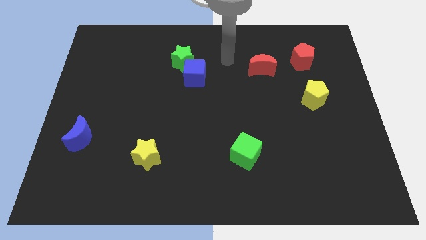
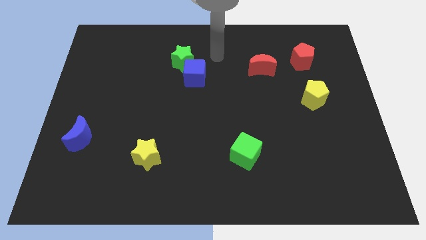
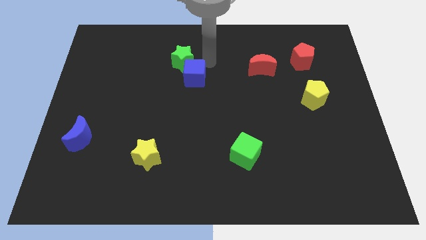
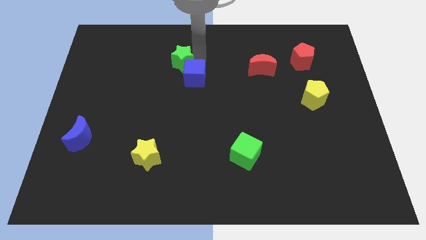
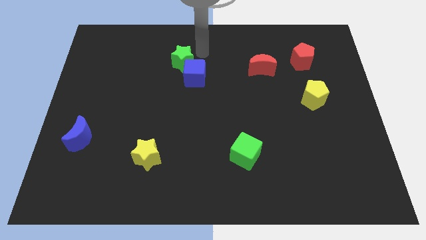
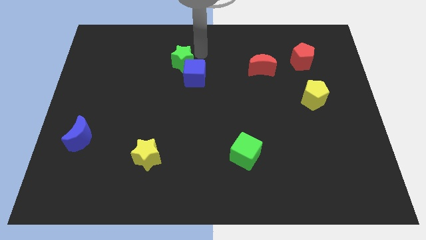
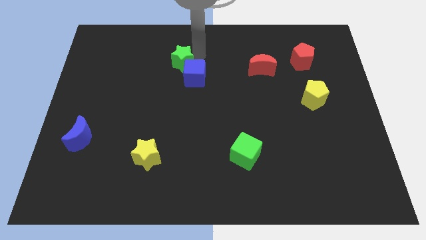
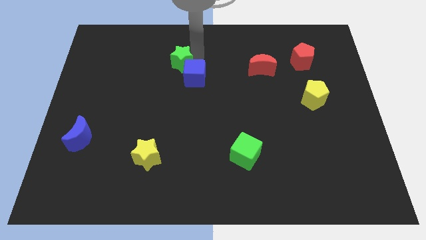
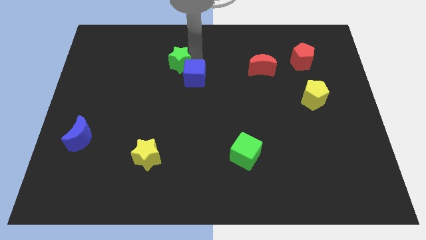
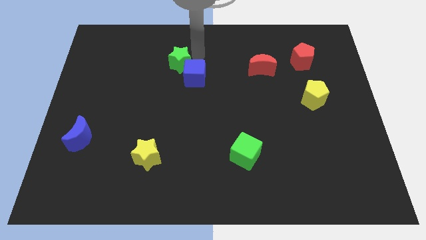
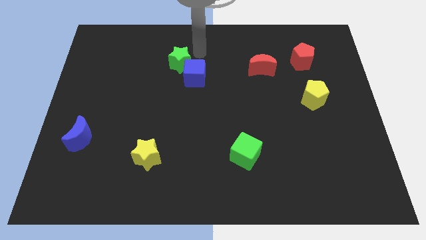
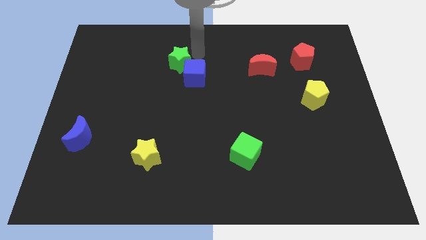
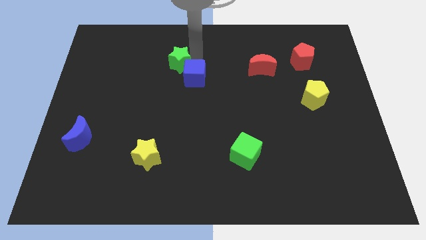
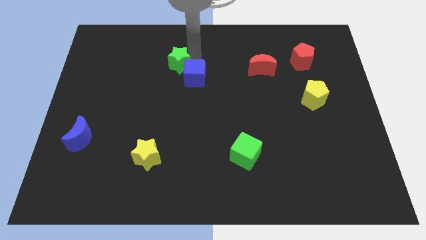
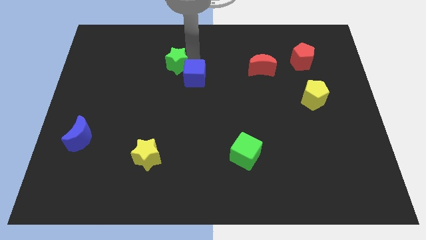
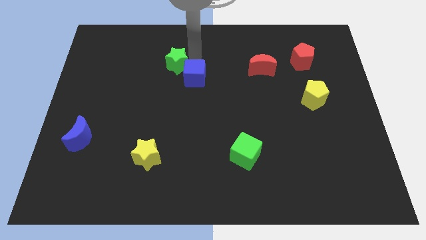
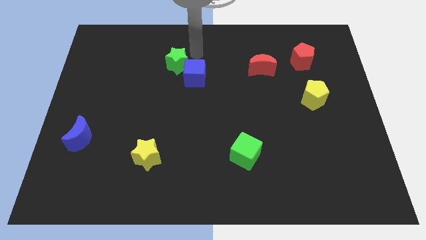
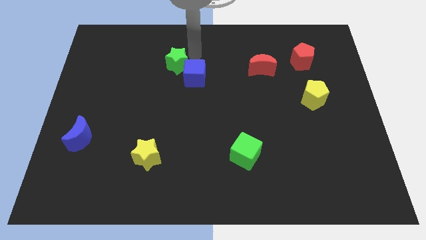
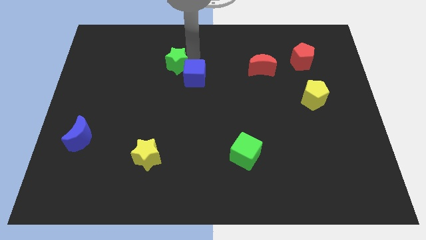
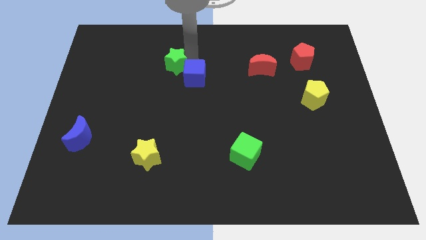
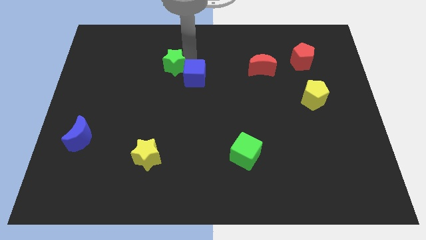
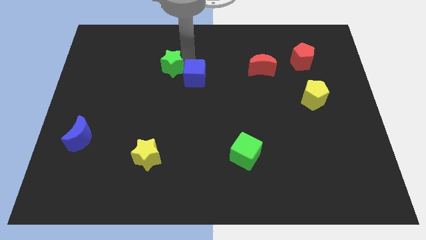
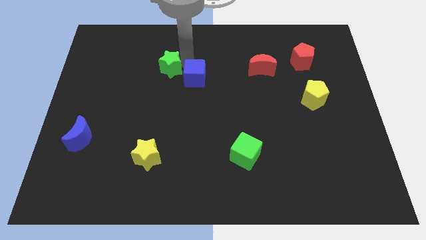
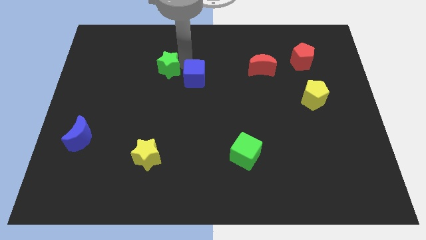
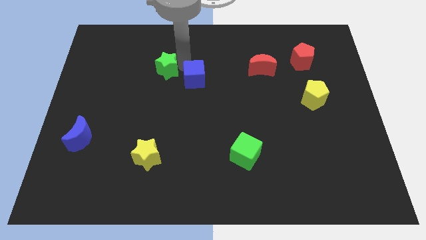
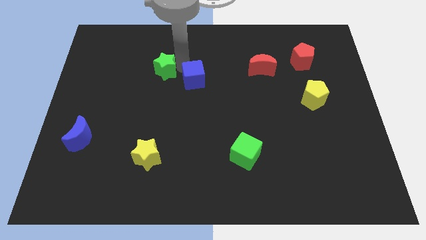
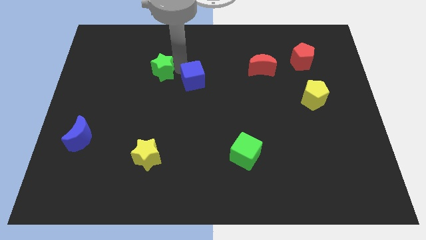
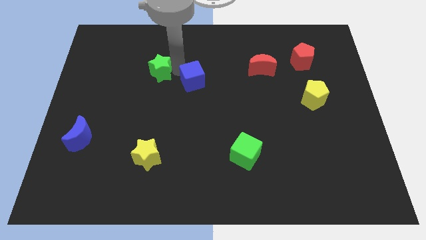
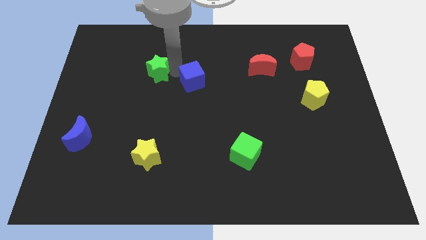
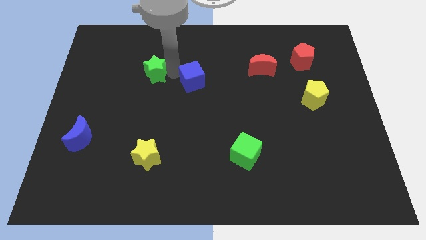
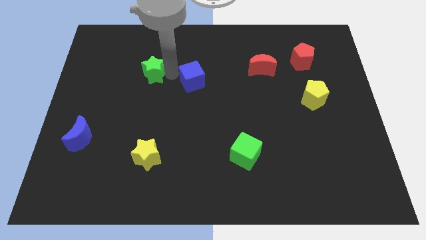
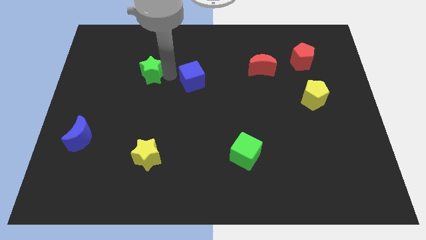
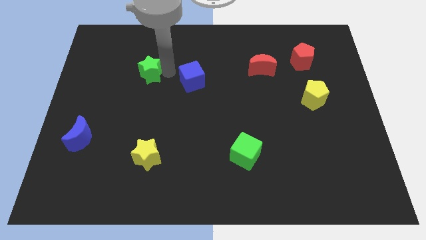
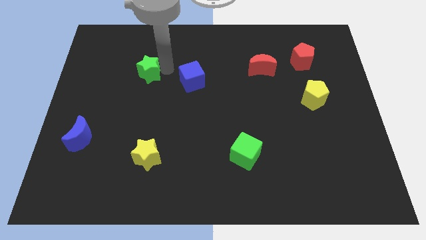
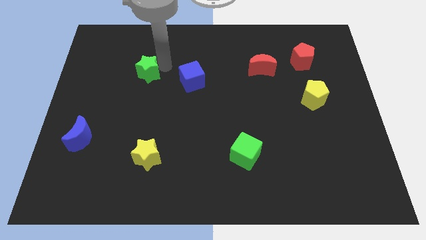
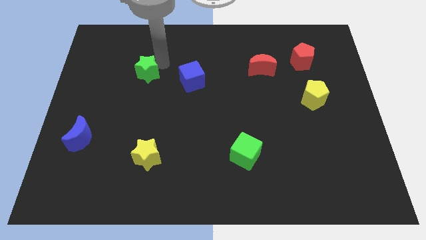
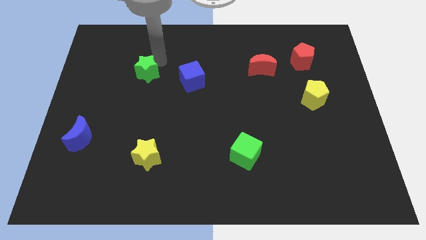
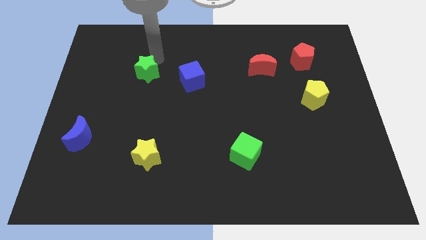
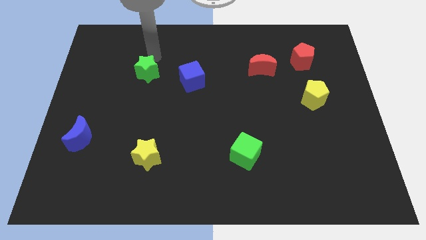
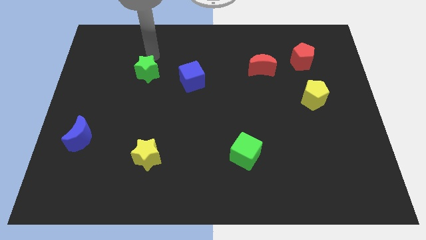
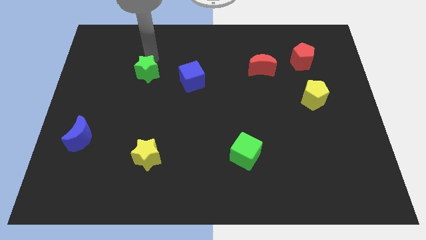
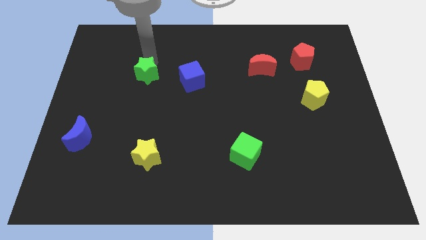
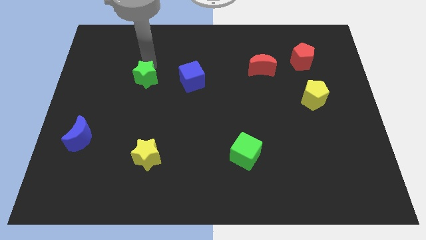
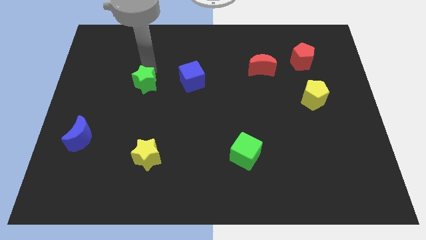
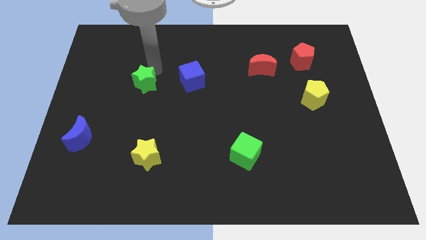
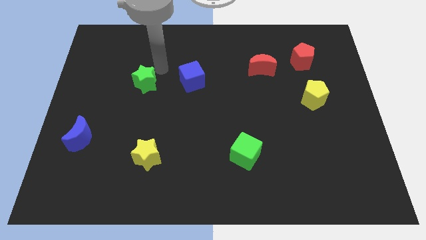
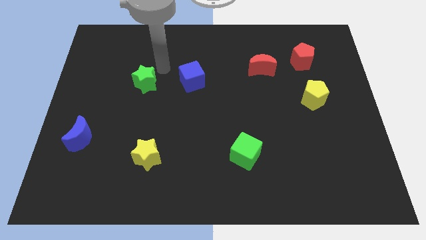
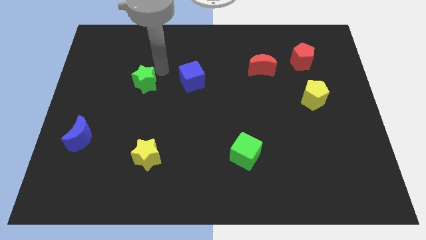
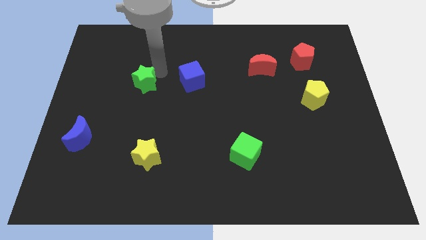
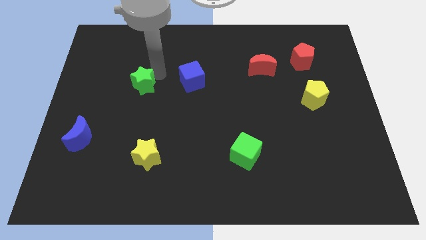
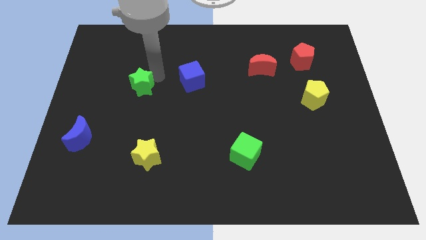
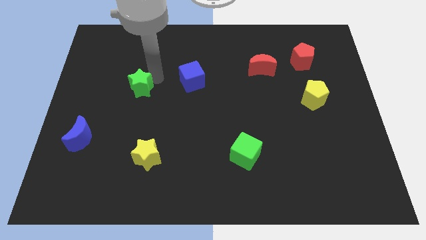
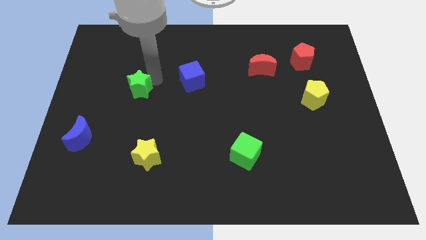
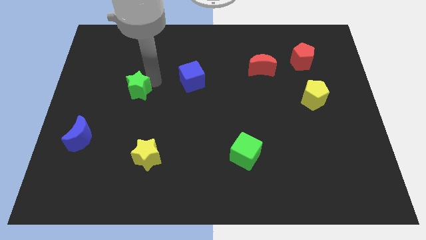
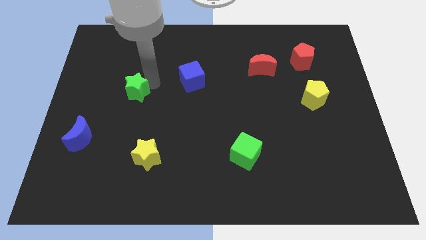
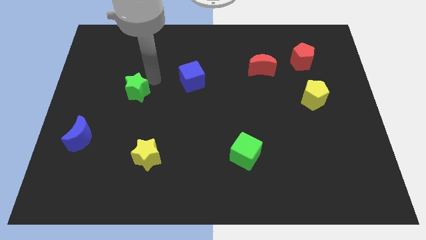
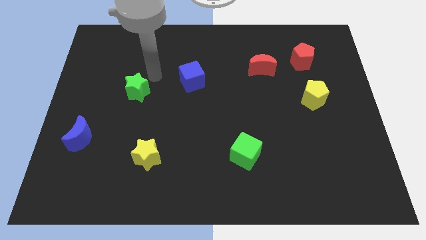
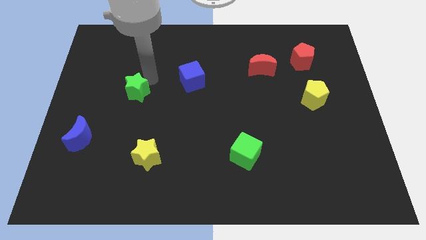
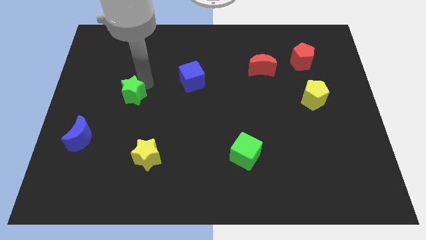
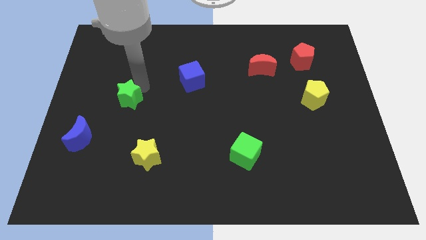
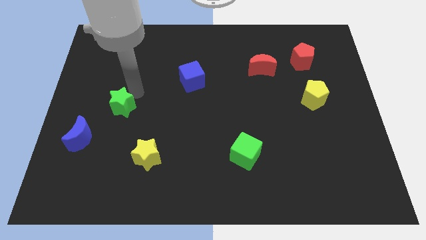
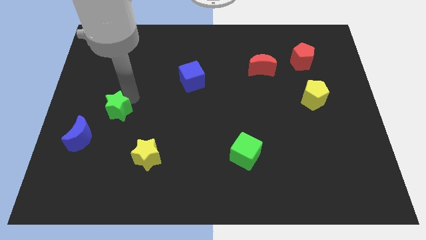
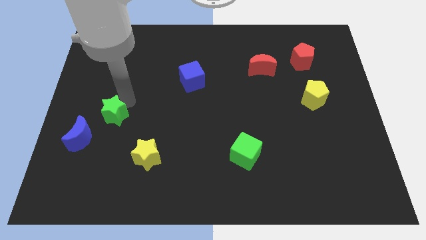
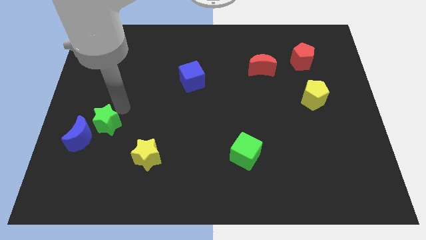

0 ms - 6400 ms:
move the green star towards the blue moon

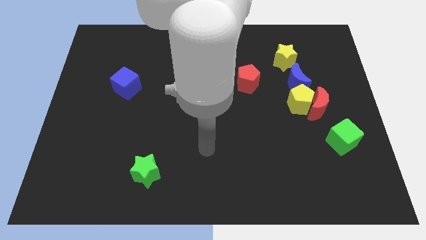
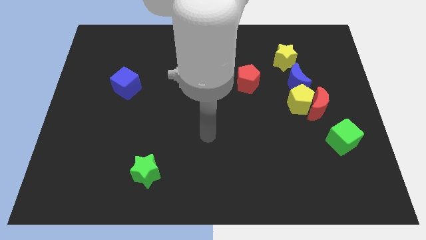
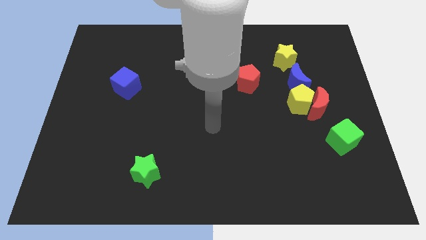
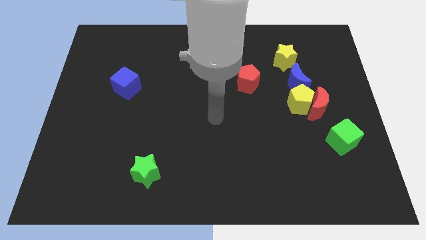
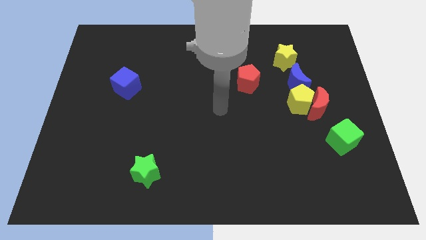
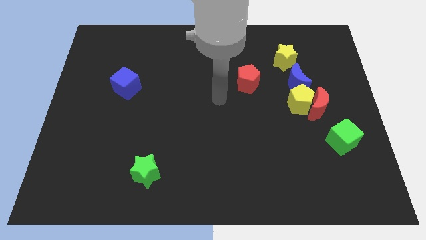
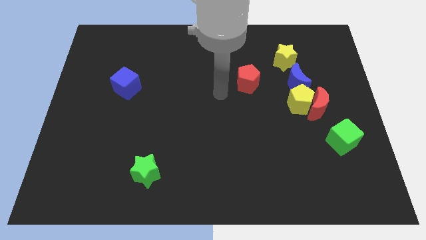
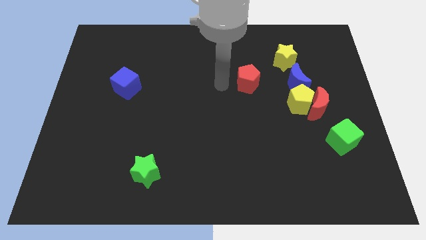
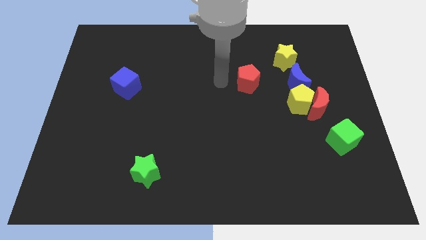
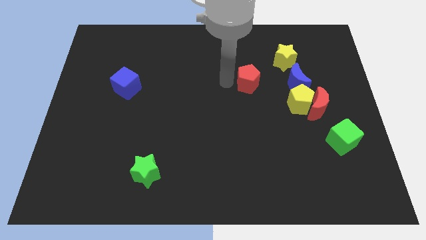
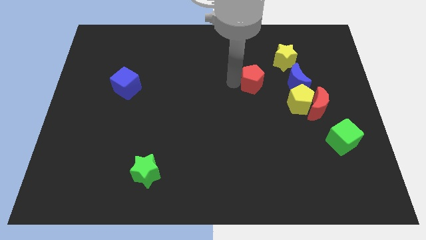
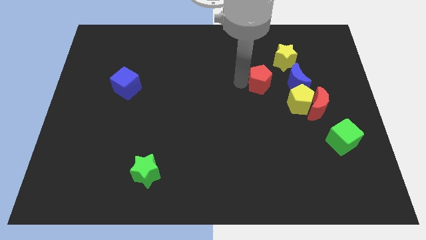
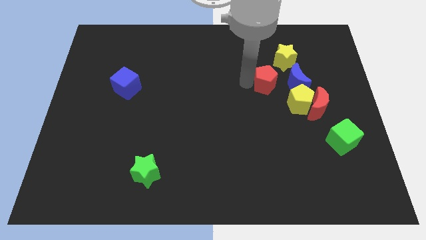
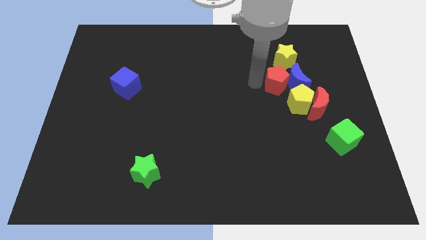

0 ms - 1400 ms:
put the red pentagon next to the blue moon
